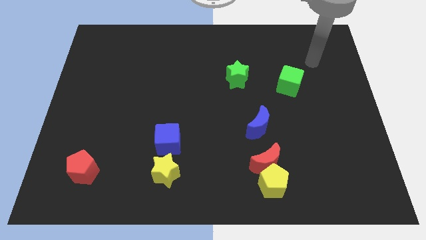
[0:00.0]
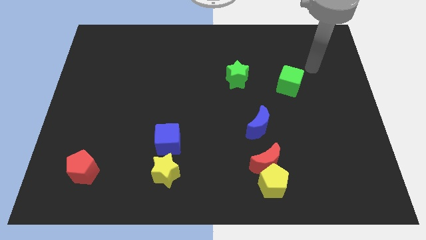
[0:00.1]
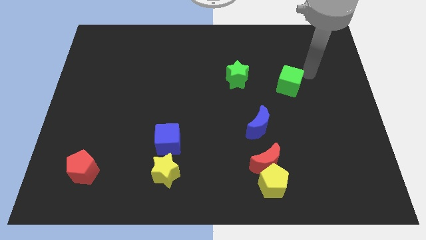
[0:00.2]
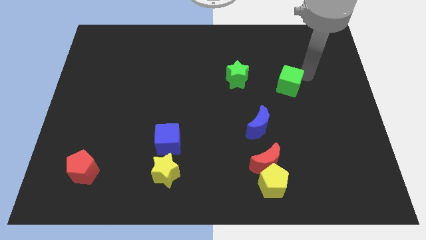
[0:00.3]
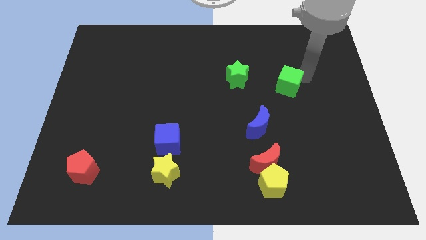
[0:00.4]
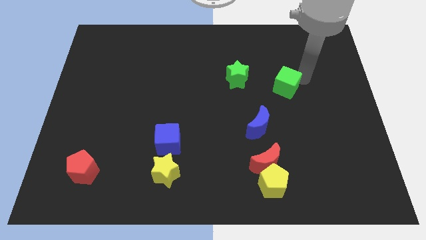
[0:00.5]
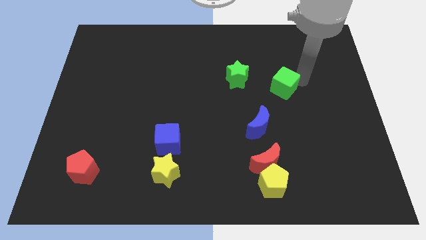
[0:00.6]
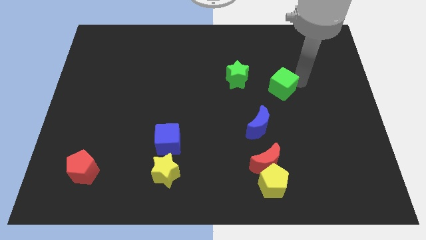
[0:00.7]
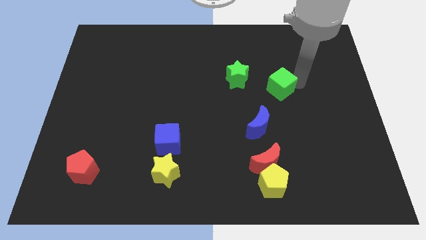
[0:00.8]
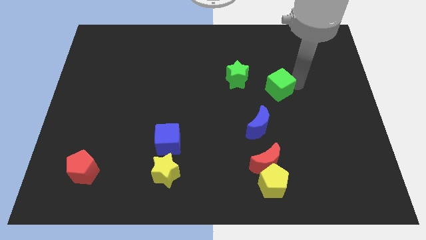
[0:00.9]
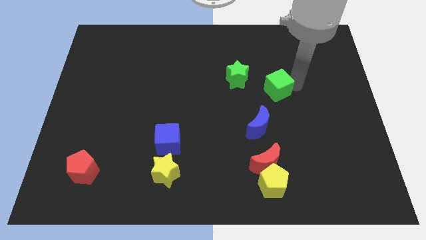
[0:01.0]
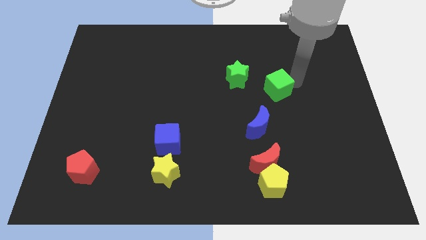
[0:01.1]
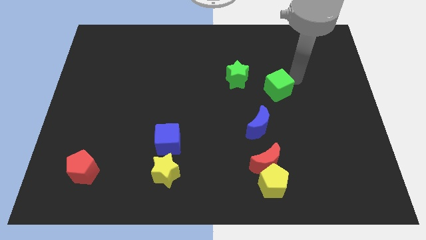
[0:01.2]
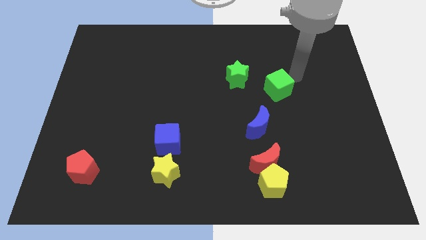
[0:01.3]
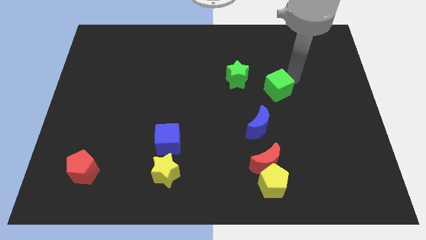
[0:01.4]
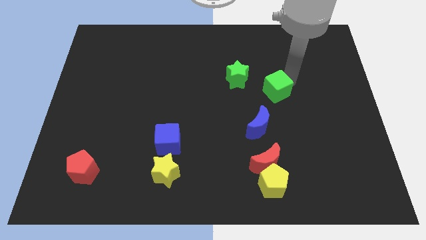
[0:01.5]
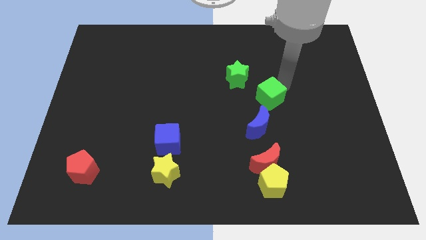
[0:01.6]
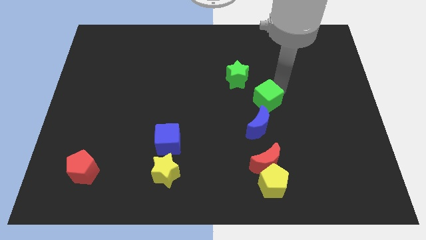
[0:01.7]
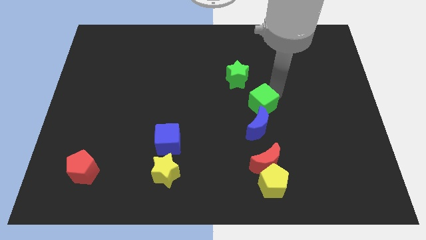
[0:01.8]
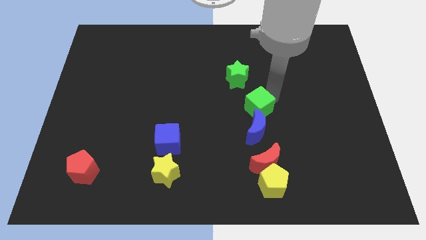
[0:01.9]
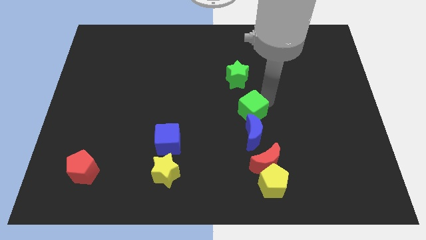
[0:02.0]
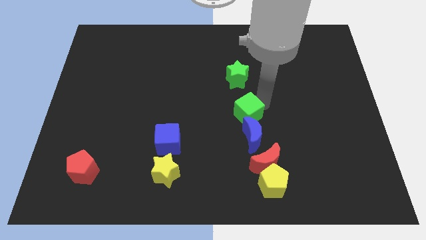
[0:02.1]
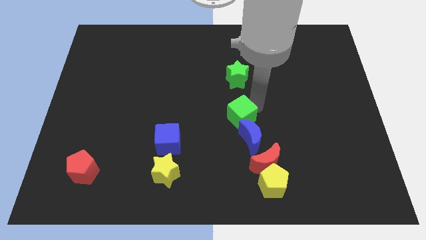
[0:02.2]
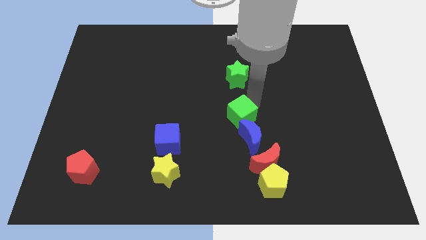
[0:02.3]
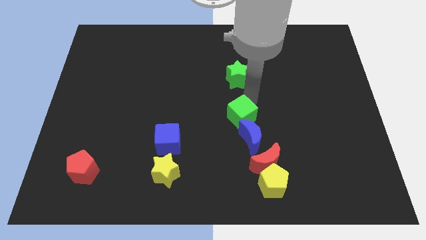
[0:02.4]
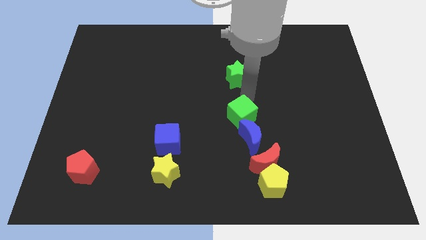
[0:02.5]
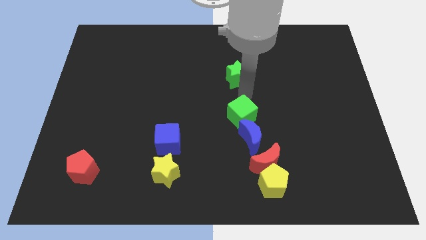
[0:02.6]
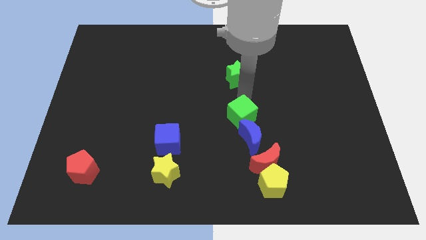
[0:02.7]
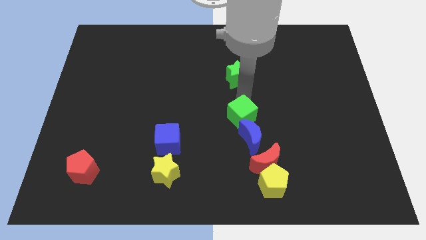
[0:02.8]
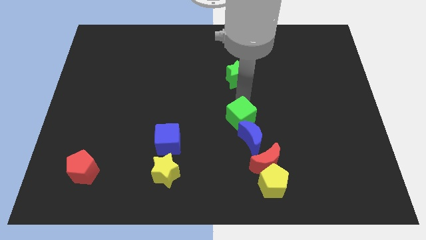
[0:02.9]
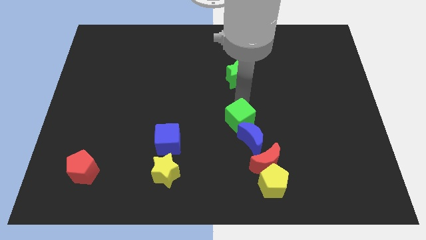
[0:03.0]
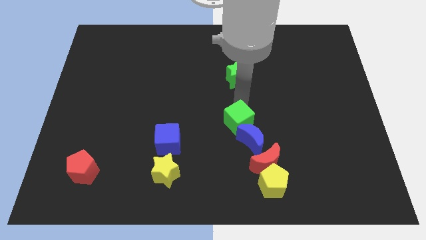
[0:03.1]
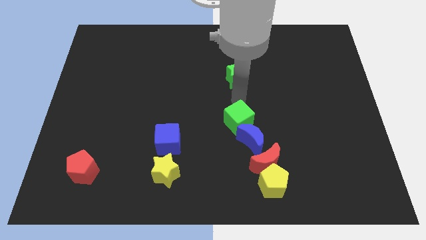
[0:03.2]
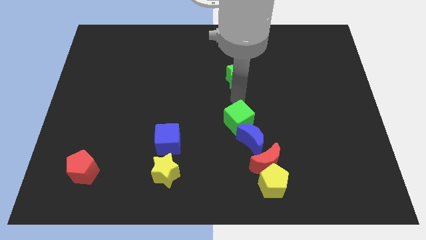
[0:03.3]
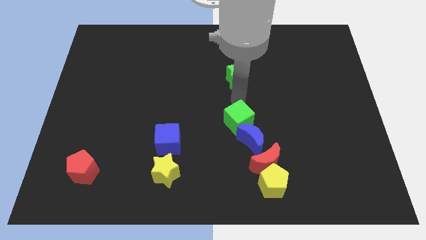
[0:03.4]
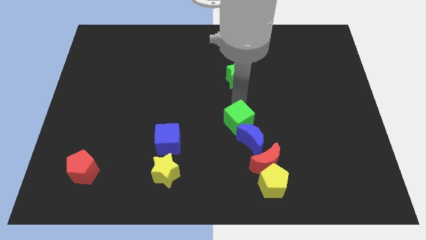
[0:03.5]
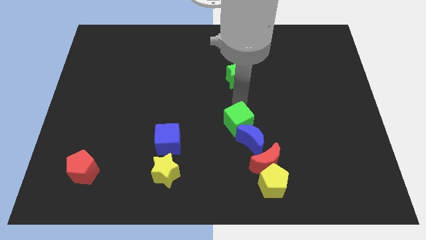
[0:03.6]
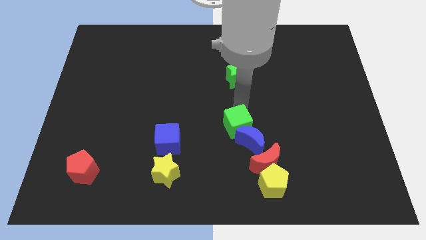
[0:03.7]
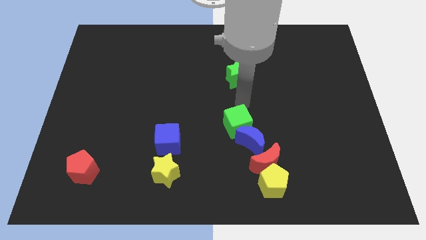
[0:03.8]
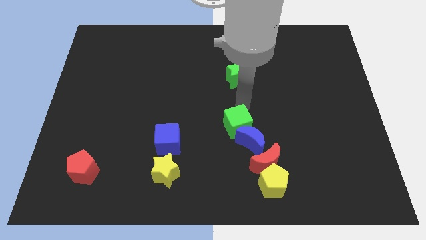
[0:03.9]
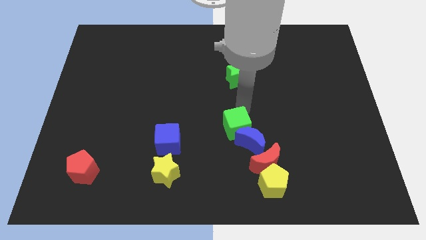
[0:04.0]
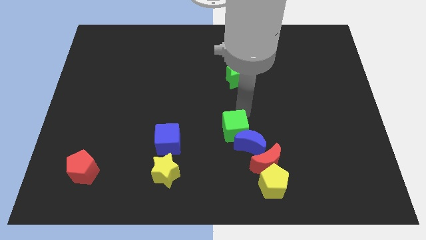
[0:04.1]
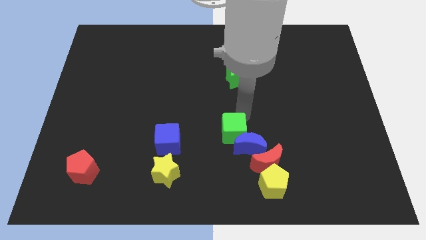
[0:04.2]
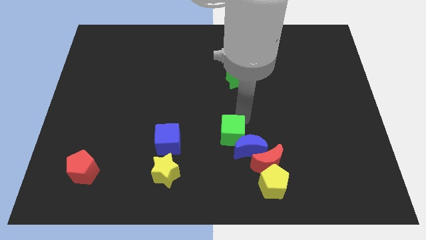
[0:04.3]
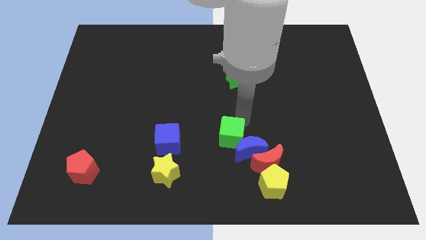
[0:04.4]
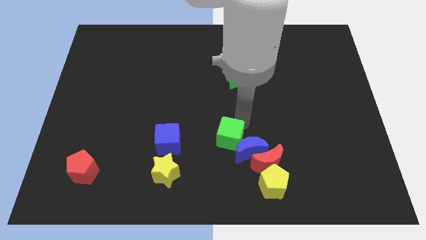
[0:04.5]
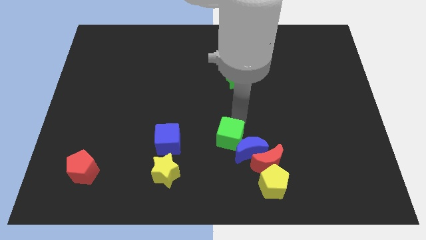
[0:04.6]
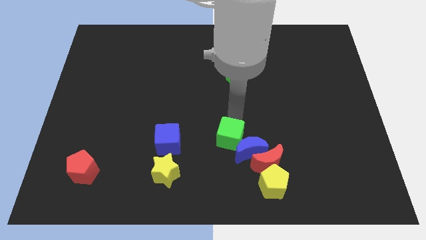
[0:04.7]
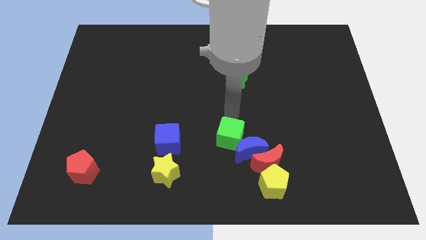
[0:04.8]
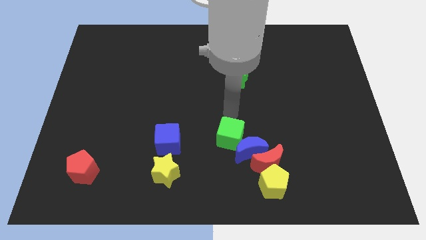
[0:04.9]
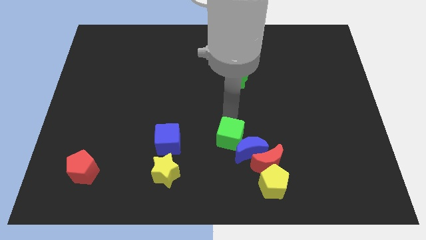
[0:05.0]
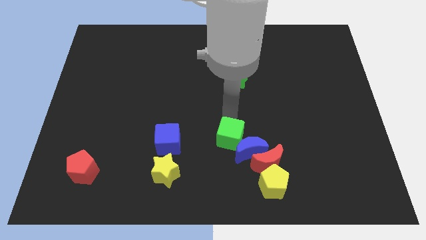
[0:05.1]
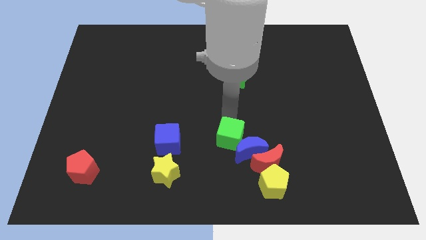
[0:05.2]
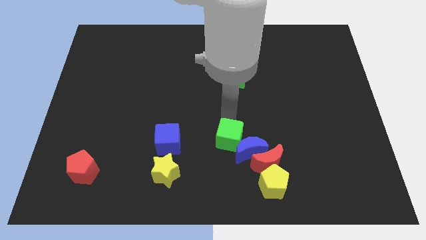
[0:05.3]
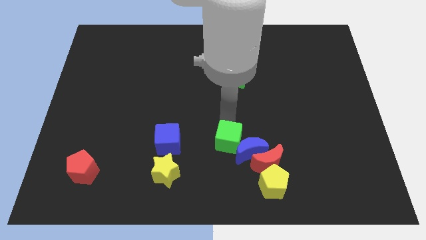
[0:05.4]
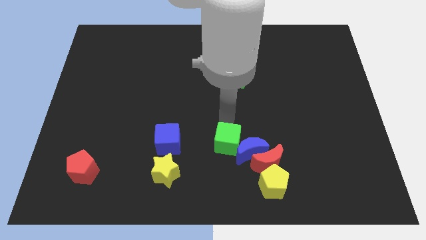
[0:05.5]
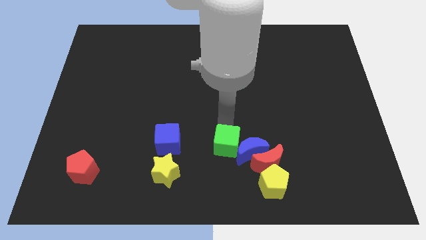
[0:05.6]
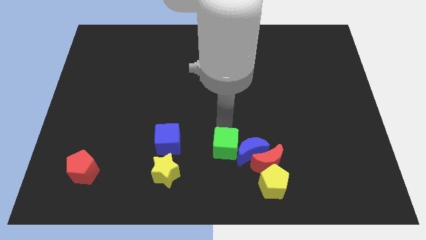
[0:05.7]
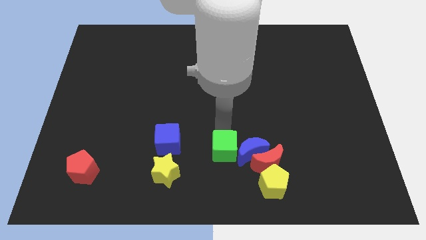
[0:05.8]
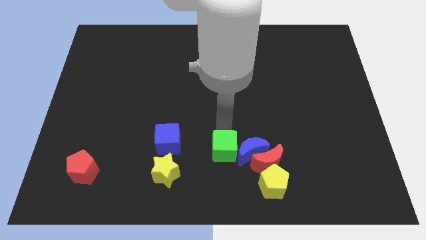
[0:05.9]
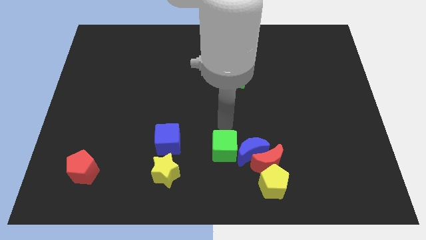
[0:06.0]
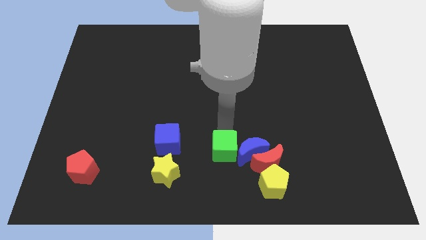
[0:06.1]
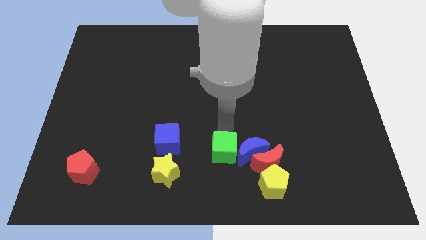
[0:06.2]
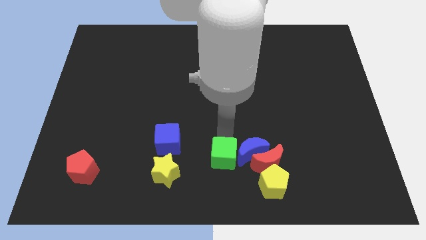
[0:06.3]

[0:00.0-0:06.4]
move the green cube to the bottom side
